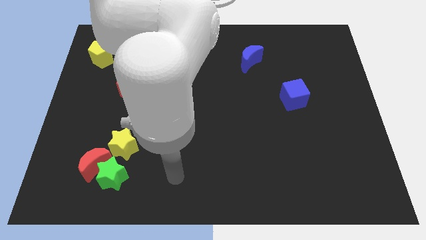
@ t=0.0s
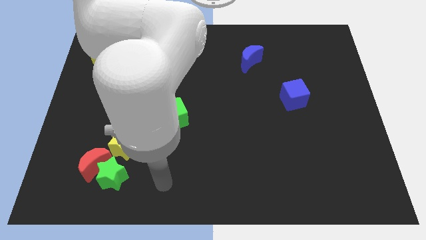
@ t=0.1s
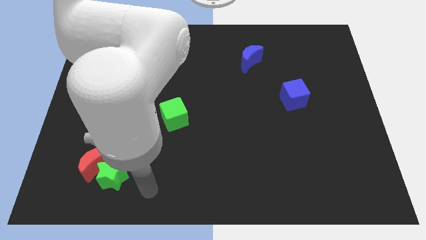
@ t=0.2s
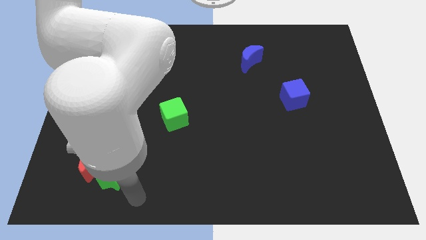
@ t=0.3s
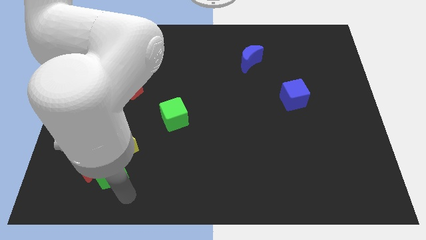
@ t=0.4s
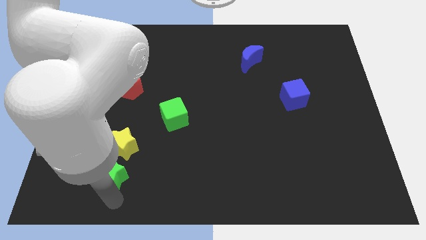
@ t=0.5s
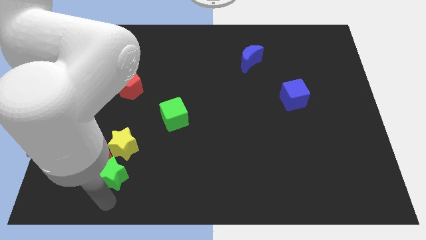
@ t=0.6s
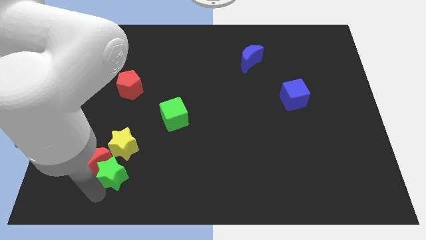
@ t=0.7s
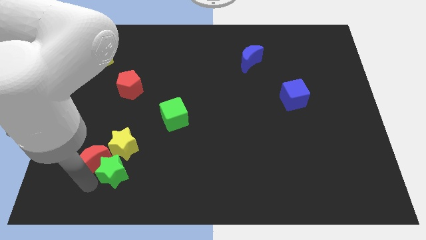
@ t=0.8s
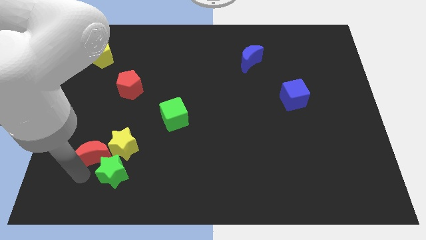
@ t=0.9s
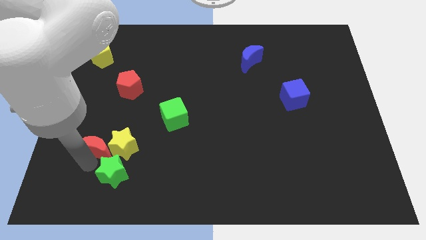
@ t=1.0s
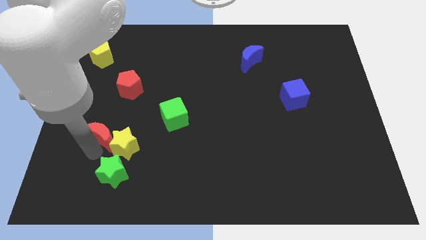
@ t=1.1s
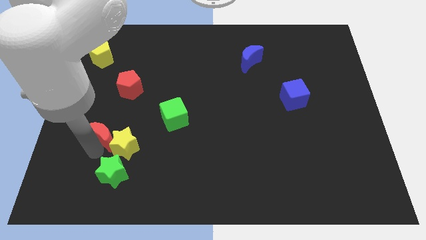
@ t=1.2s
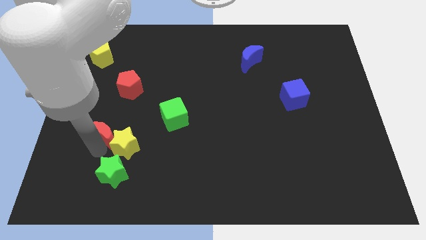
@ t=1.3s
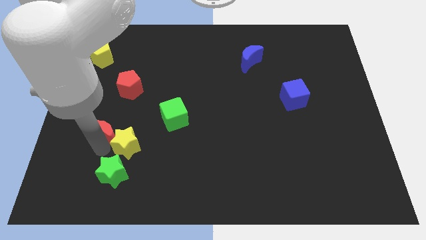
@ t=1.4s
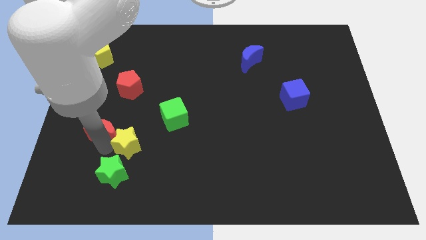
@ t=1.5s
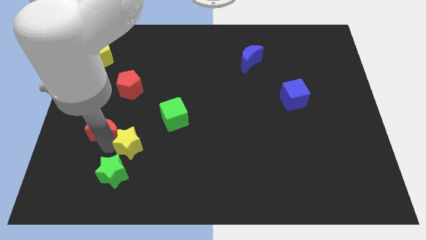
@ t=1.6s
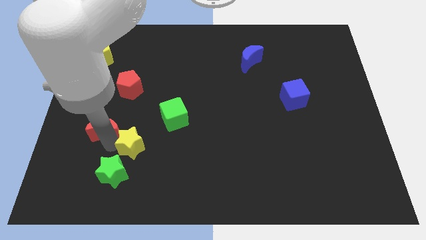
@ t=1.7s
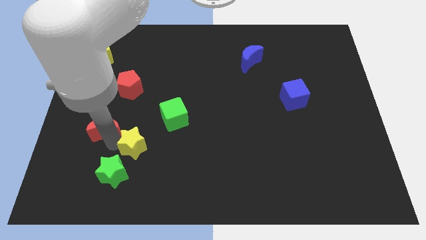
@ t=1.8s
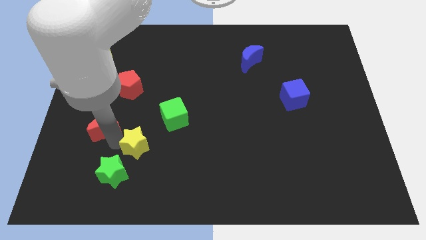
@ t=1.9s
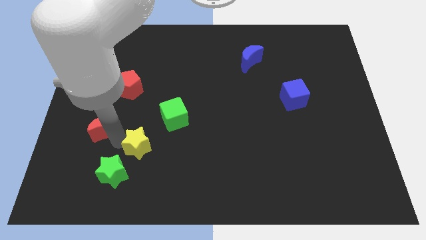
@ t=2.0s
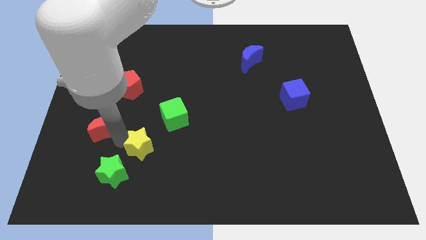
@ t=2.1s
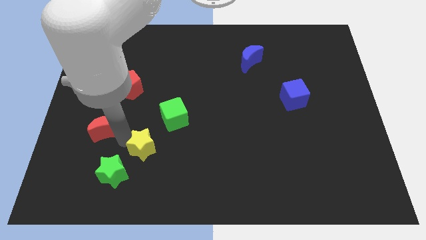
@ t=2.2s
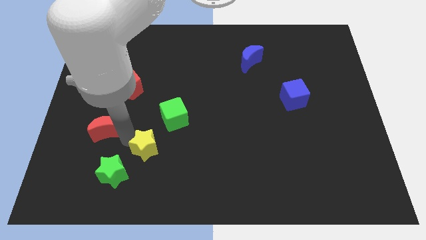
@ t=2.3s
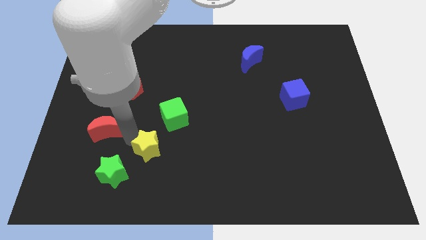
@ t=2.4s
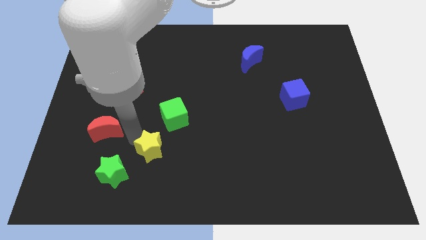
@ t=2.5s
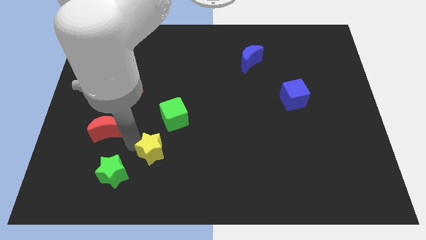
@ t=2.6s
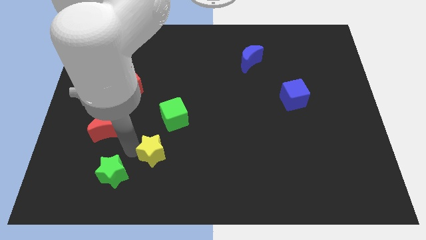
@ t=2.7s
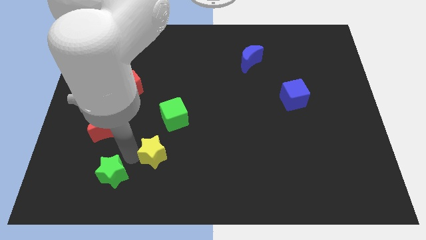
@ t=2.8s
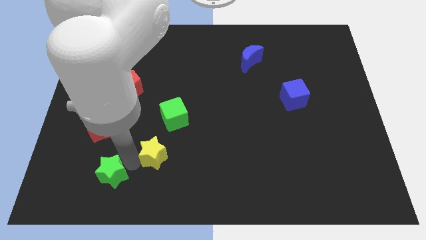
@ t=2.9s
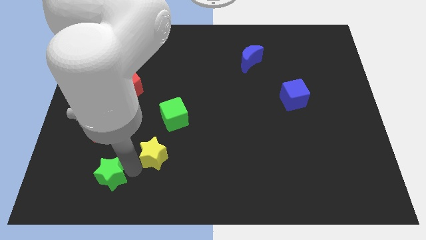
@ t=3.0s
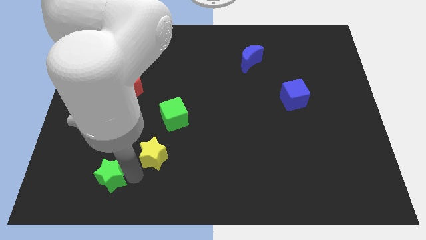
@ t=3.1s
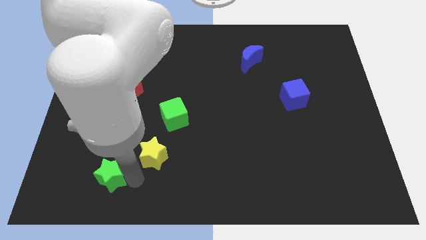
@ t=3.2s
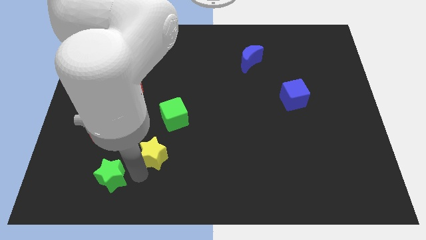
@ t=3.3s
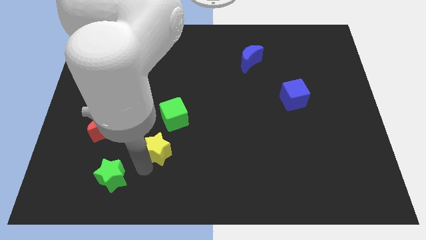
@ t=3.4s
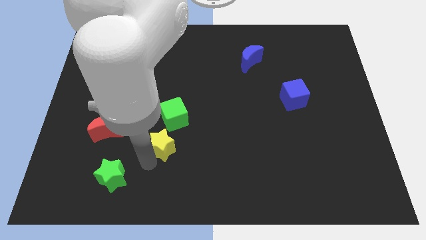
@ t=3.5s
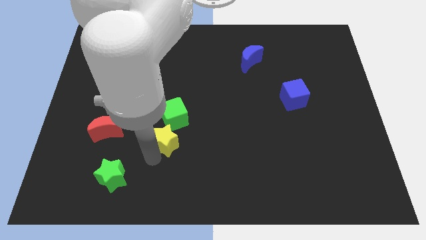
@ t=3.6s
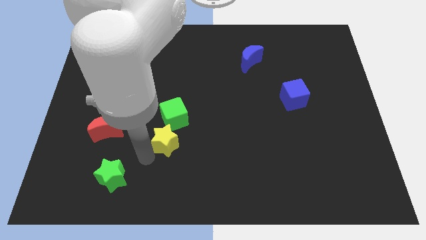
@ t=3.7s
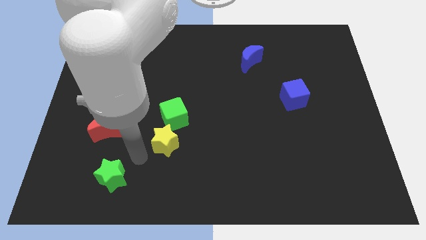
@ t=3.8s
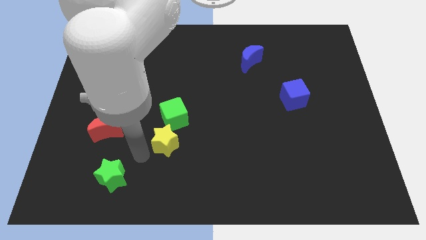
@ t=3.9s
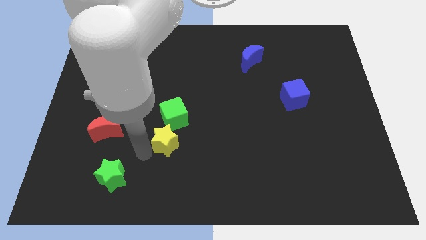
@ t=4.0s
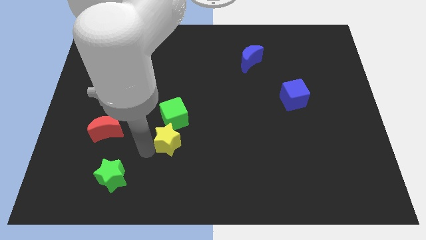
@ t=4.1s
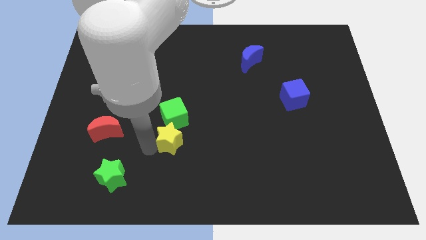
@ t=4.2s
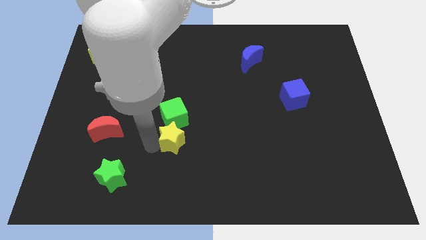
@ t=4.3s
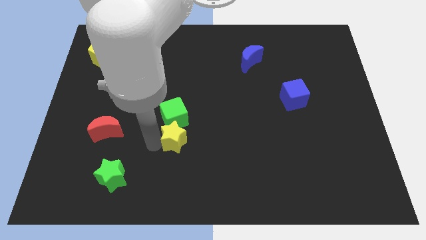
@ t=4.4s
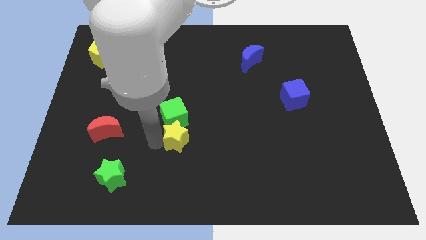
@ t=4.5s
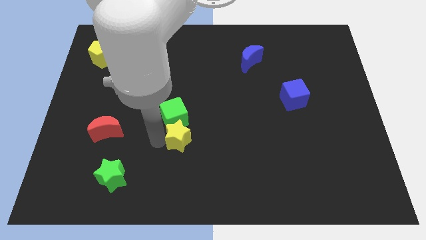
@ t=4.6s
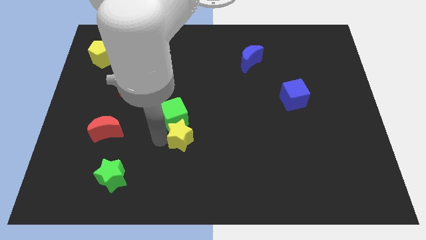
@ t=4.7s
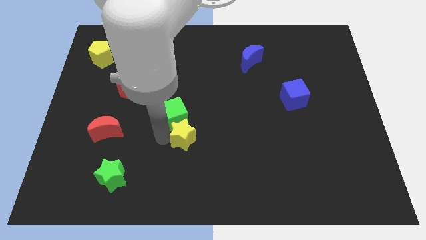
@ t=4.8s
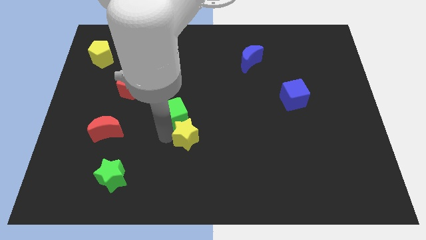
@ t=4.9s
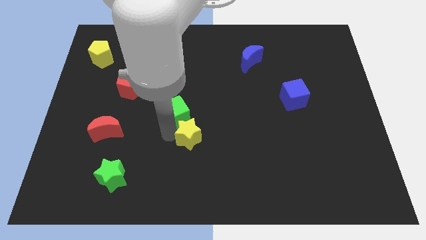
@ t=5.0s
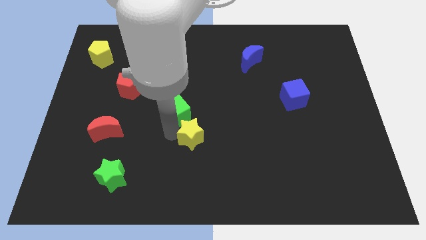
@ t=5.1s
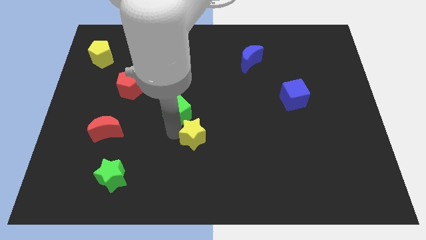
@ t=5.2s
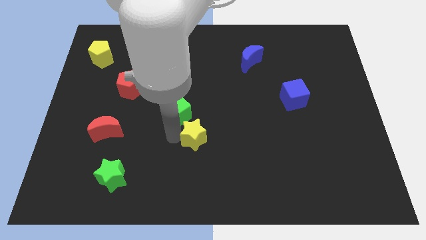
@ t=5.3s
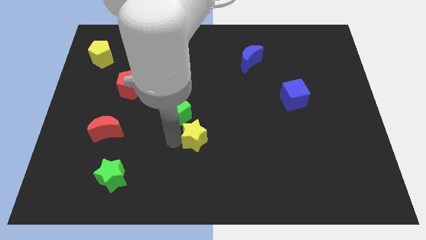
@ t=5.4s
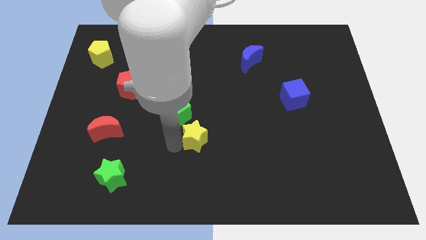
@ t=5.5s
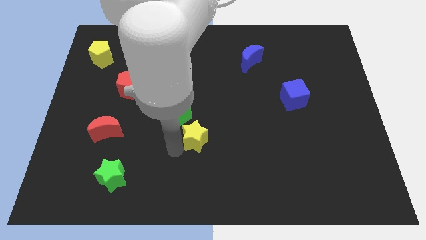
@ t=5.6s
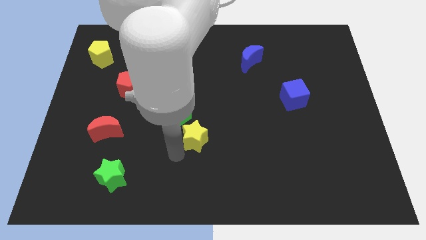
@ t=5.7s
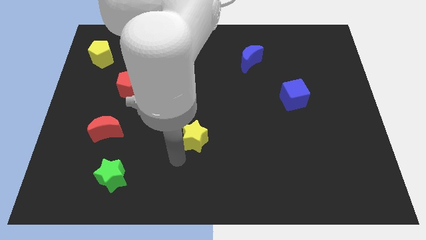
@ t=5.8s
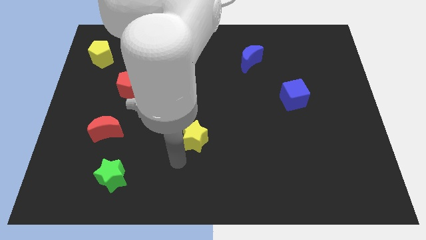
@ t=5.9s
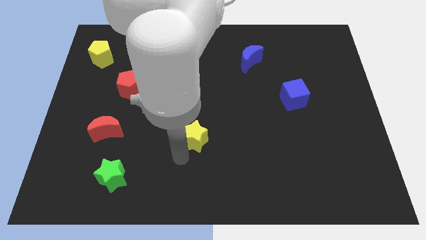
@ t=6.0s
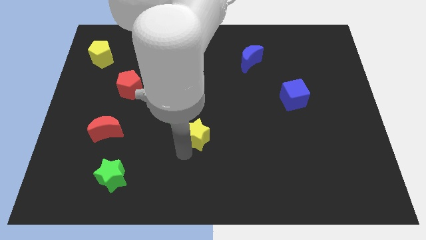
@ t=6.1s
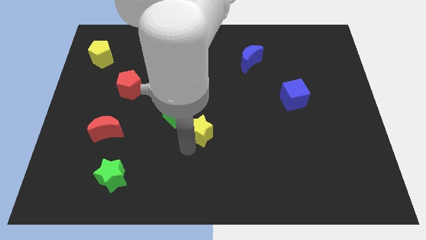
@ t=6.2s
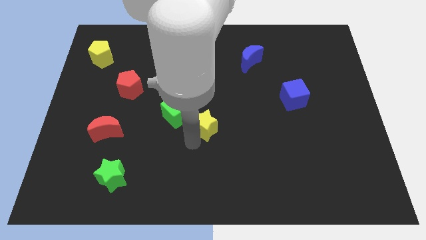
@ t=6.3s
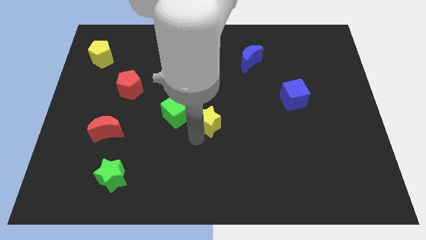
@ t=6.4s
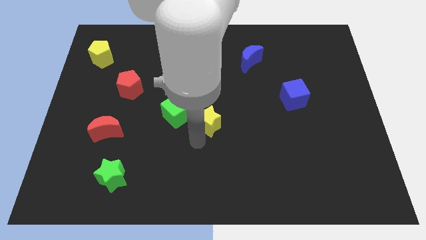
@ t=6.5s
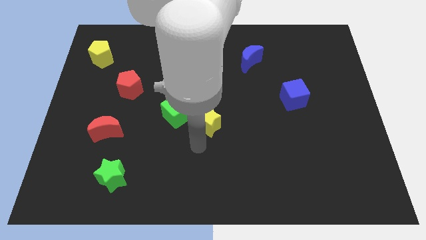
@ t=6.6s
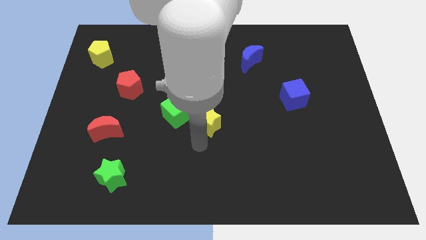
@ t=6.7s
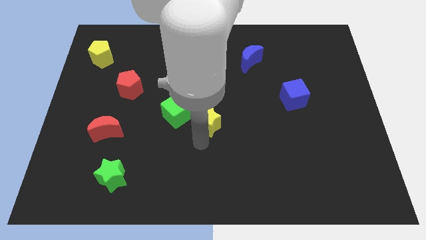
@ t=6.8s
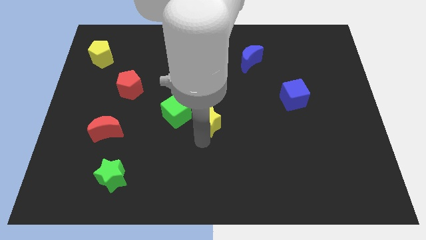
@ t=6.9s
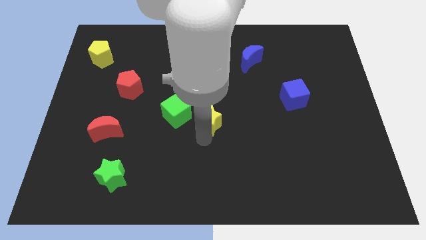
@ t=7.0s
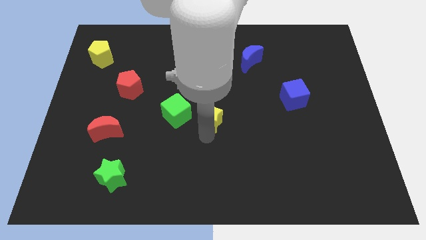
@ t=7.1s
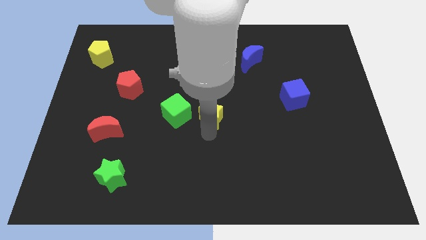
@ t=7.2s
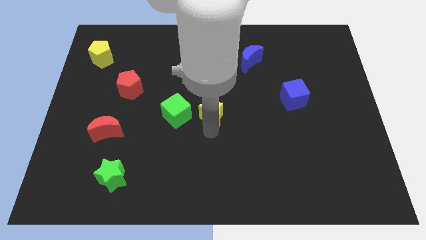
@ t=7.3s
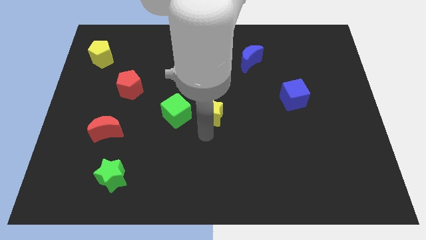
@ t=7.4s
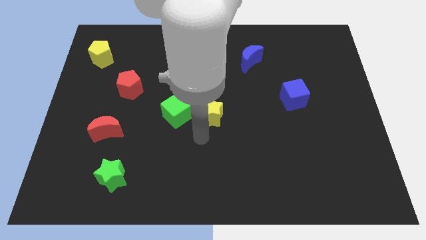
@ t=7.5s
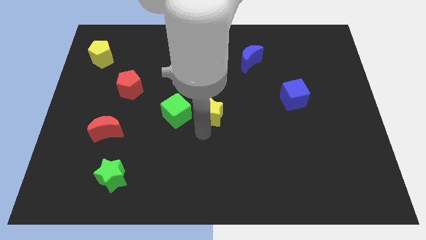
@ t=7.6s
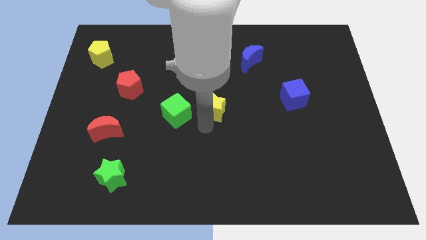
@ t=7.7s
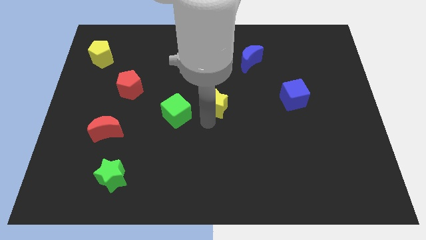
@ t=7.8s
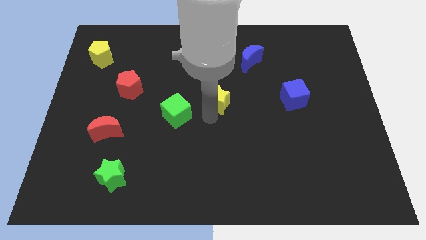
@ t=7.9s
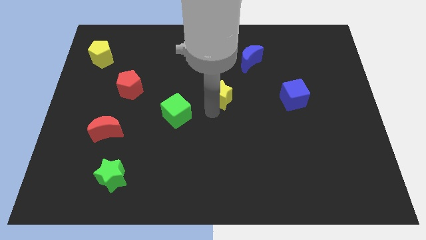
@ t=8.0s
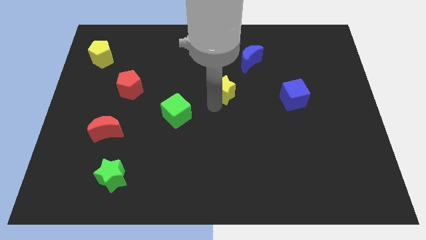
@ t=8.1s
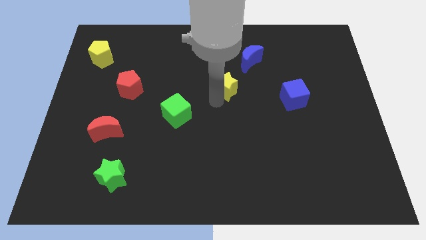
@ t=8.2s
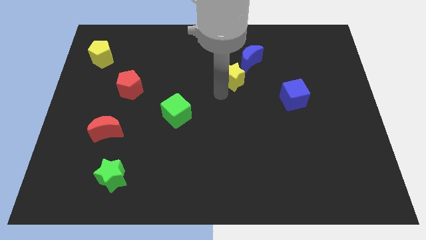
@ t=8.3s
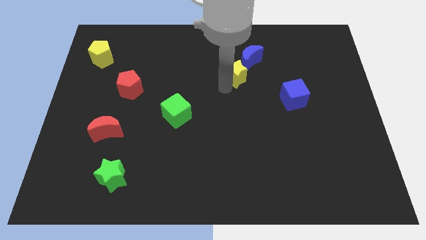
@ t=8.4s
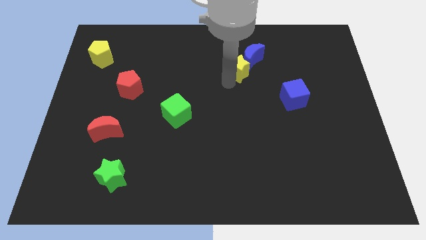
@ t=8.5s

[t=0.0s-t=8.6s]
put the yellow star next to the blue moon

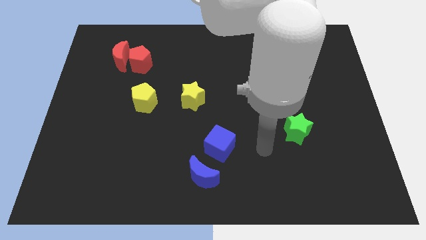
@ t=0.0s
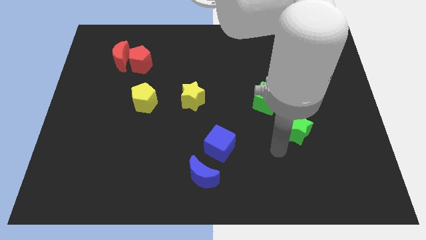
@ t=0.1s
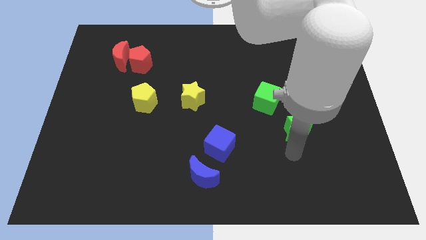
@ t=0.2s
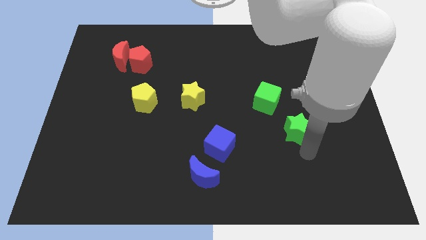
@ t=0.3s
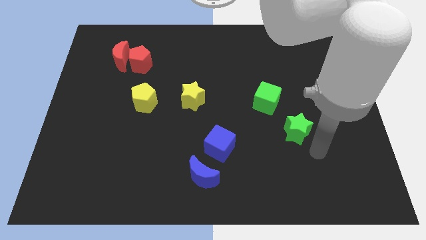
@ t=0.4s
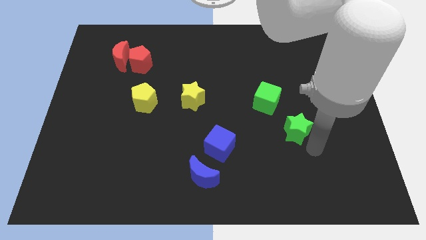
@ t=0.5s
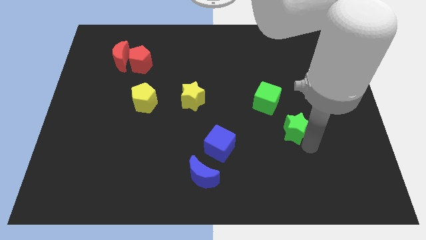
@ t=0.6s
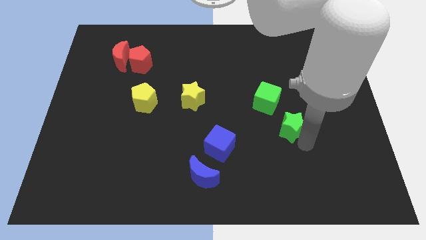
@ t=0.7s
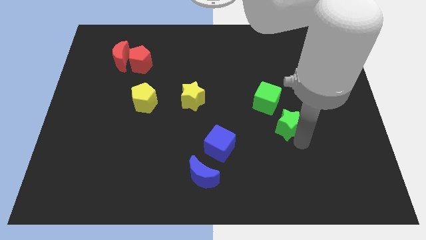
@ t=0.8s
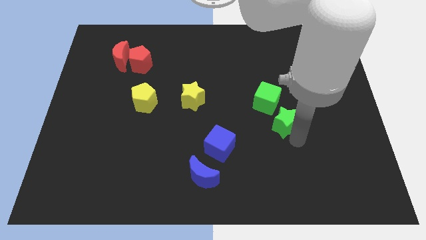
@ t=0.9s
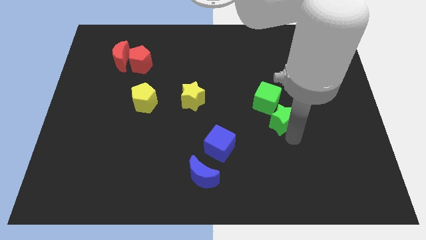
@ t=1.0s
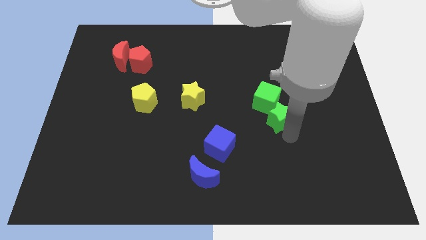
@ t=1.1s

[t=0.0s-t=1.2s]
push the green star close to the green cube
